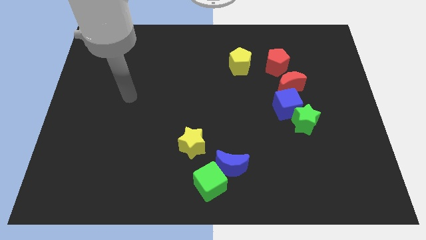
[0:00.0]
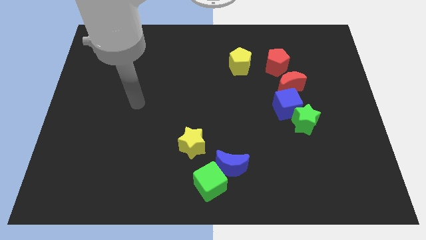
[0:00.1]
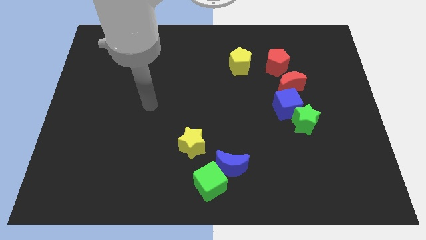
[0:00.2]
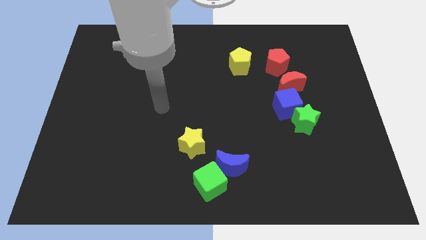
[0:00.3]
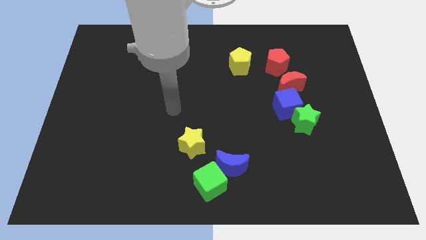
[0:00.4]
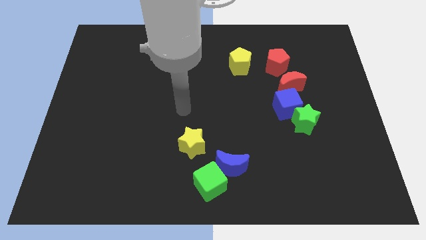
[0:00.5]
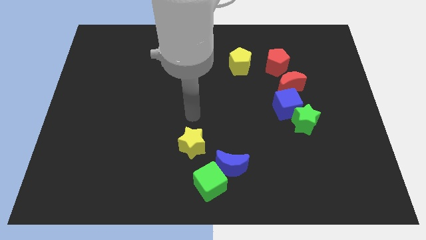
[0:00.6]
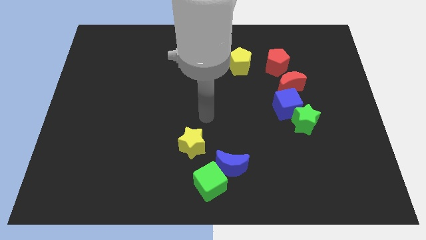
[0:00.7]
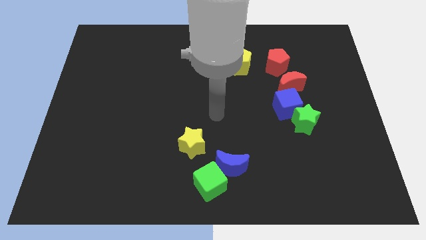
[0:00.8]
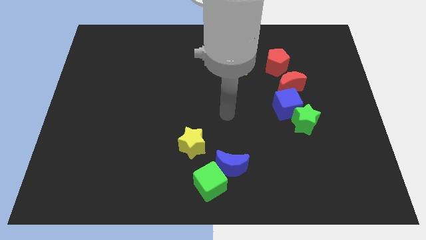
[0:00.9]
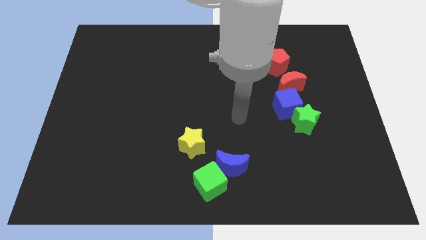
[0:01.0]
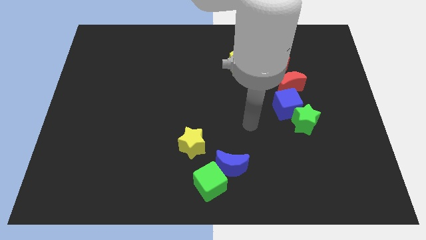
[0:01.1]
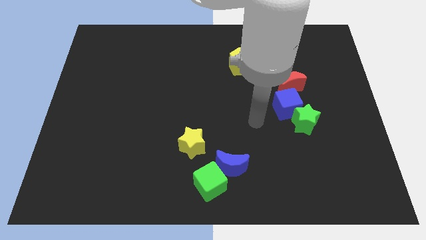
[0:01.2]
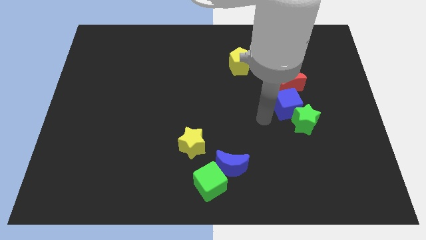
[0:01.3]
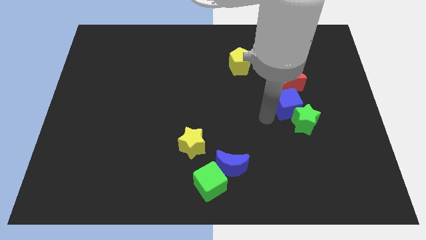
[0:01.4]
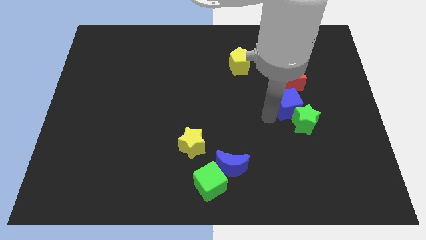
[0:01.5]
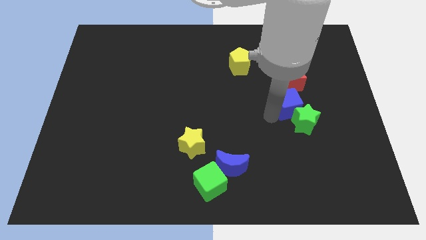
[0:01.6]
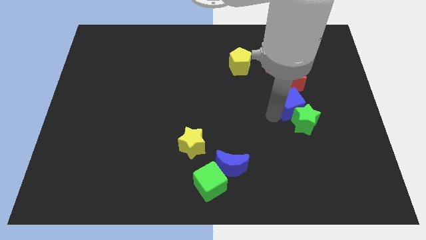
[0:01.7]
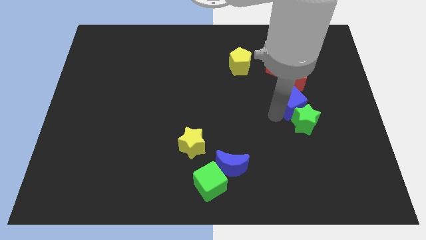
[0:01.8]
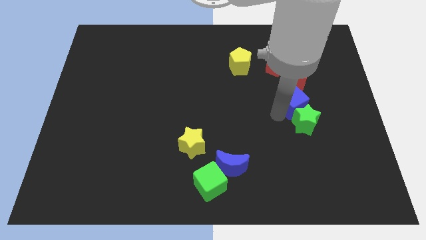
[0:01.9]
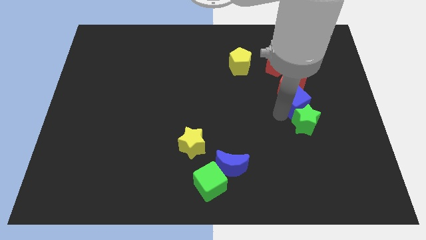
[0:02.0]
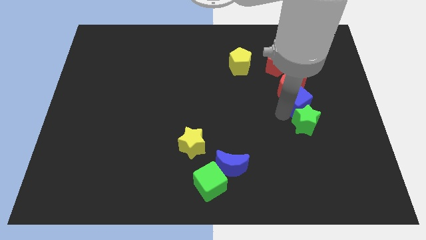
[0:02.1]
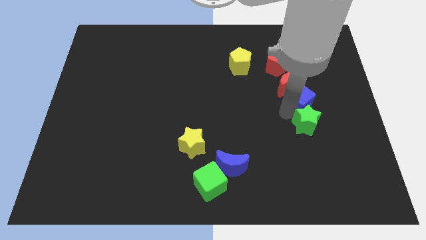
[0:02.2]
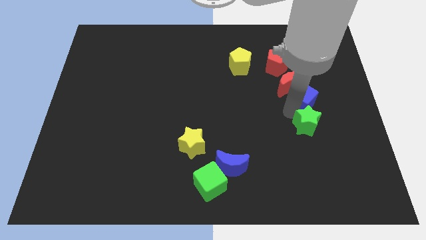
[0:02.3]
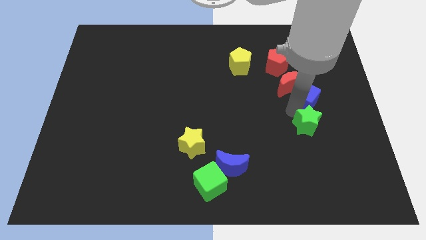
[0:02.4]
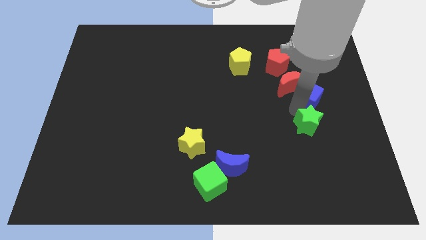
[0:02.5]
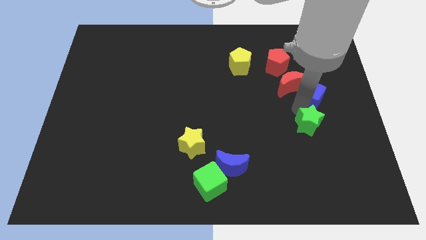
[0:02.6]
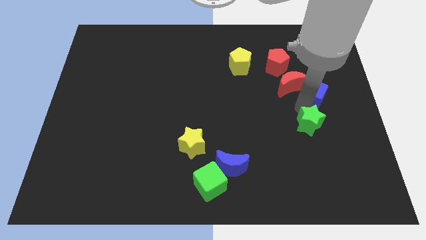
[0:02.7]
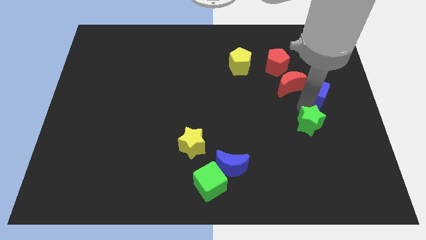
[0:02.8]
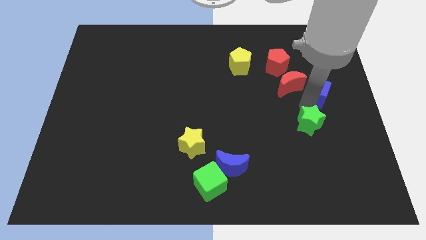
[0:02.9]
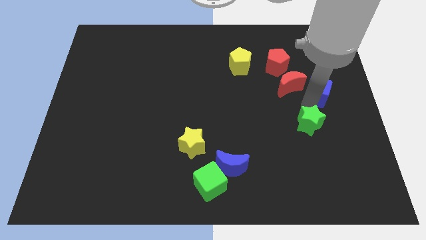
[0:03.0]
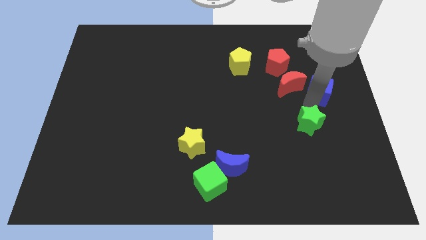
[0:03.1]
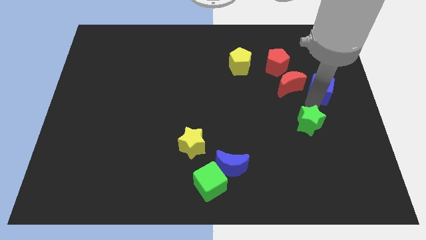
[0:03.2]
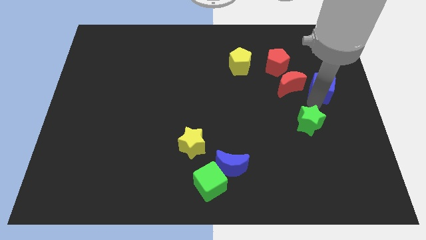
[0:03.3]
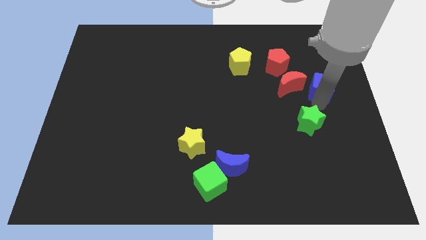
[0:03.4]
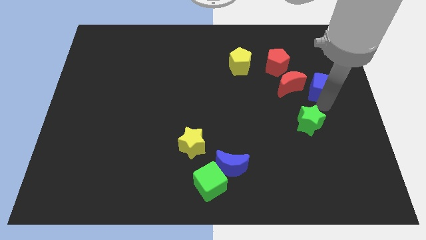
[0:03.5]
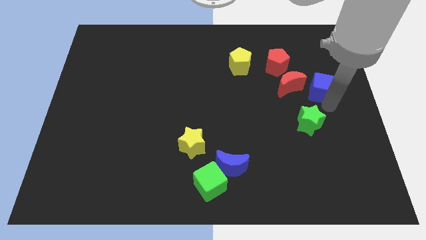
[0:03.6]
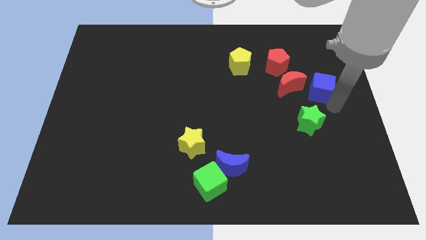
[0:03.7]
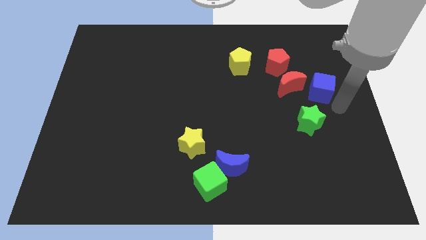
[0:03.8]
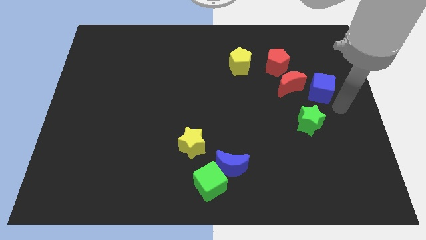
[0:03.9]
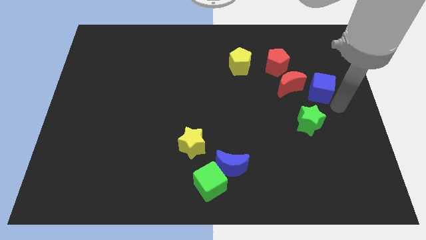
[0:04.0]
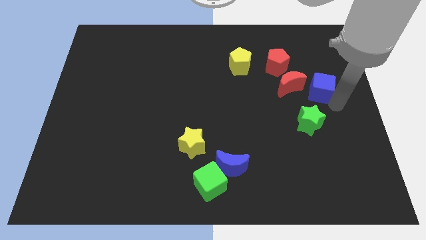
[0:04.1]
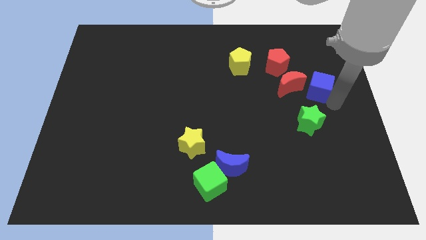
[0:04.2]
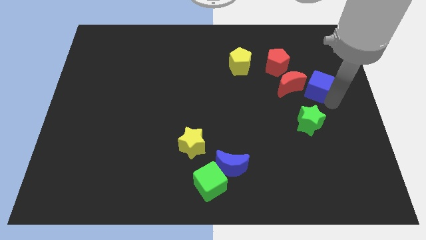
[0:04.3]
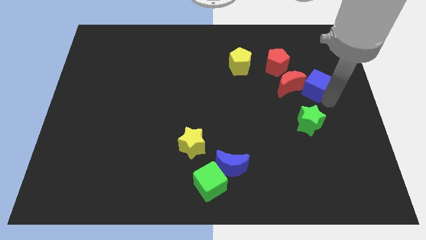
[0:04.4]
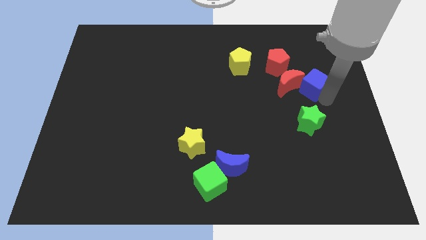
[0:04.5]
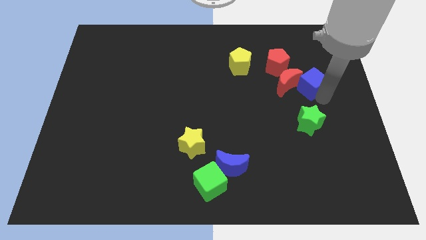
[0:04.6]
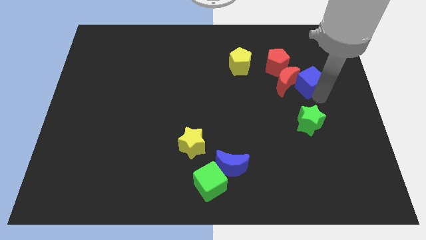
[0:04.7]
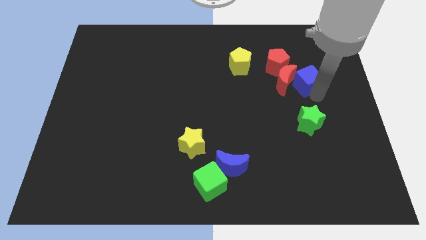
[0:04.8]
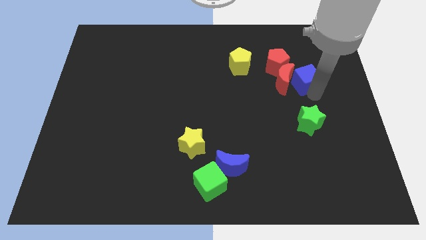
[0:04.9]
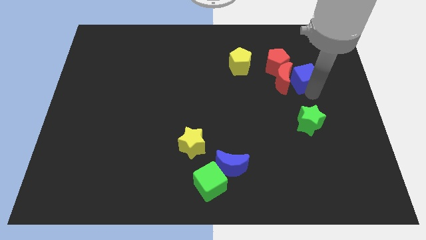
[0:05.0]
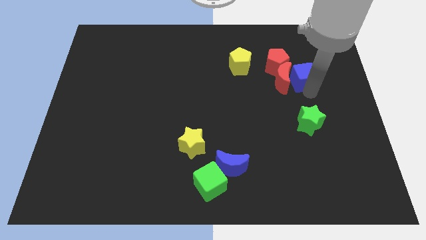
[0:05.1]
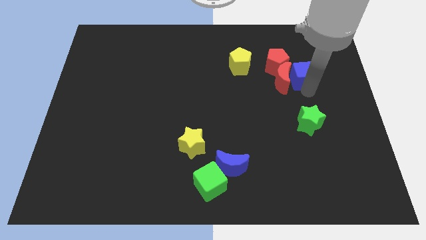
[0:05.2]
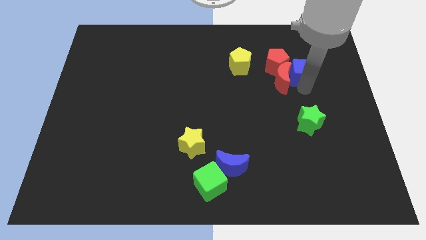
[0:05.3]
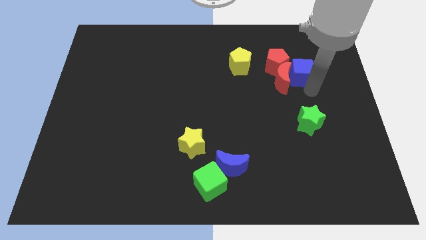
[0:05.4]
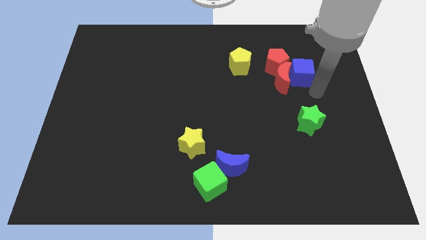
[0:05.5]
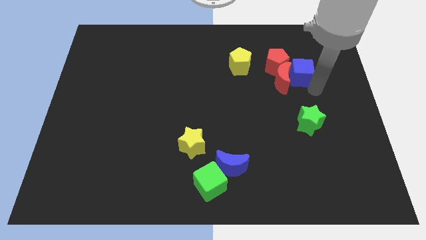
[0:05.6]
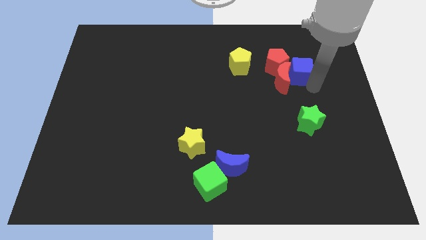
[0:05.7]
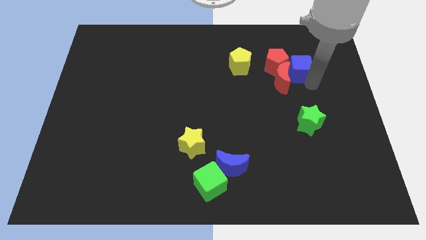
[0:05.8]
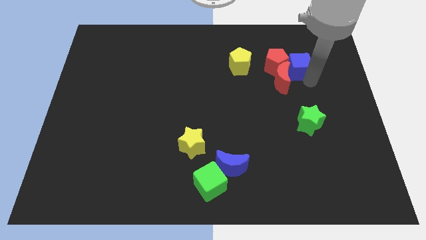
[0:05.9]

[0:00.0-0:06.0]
put the blue cube to the top of the red moon

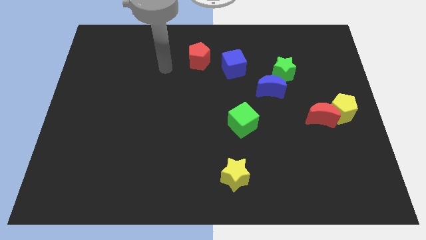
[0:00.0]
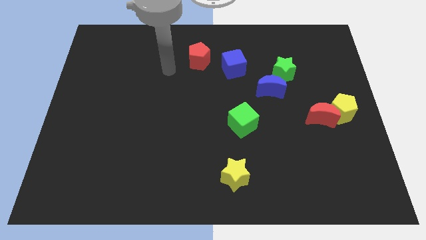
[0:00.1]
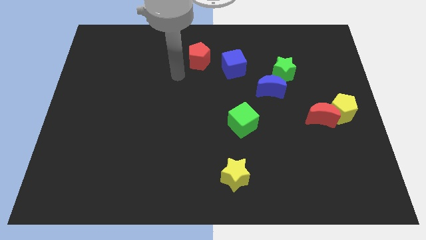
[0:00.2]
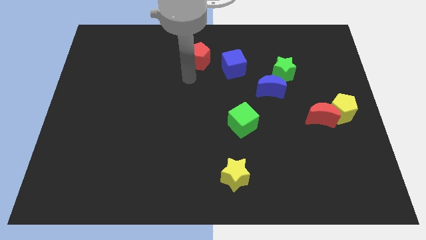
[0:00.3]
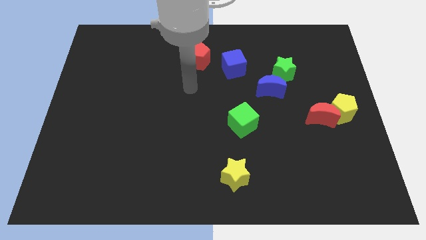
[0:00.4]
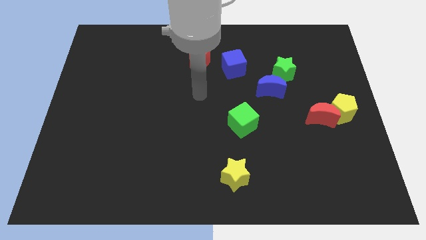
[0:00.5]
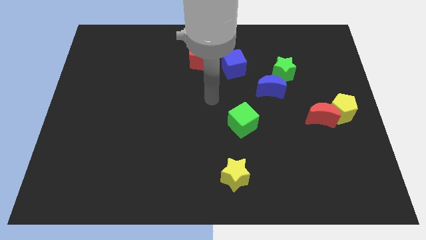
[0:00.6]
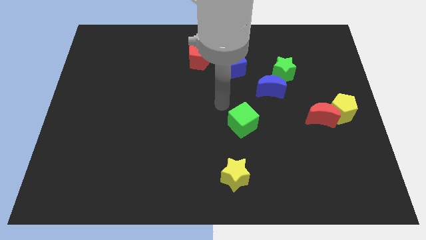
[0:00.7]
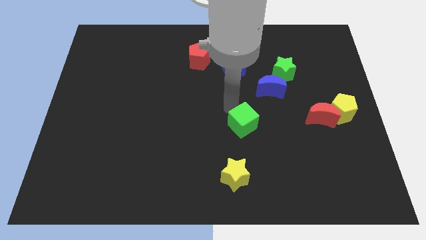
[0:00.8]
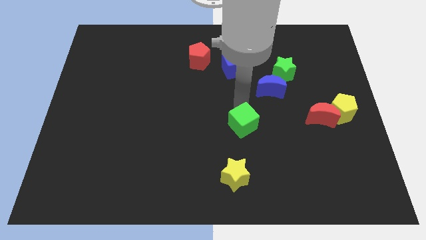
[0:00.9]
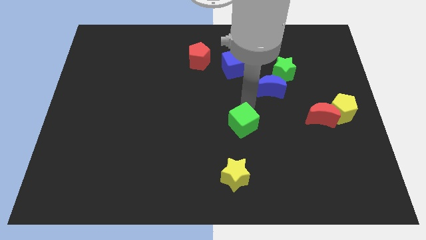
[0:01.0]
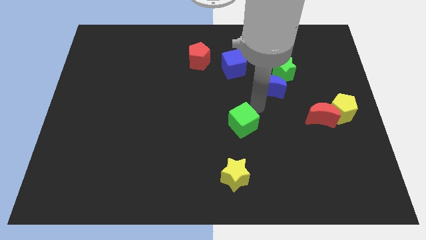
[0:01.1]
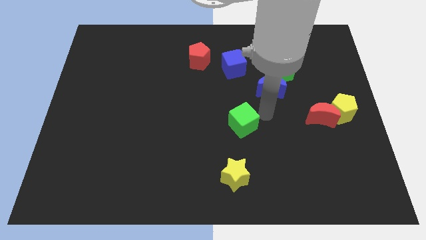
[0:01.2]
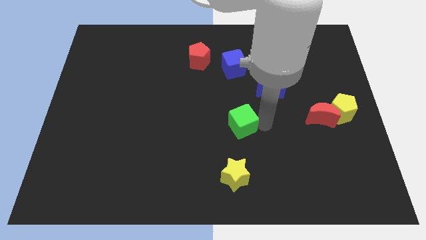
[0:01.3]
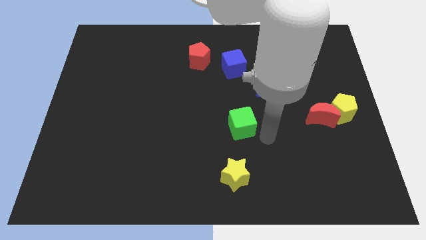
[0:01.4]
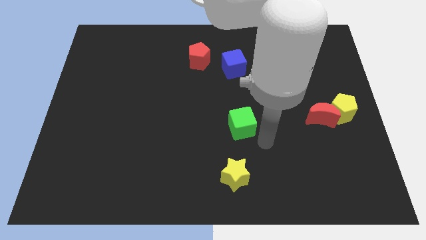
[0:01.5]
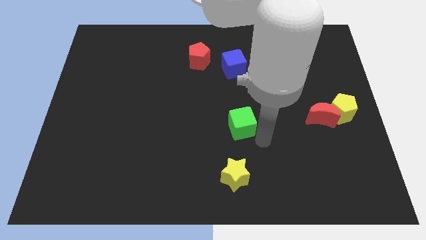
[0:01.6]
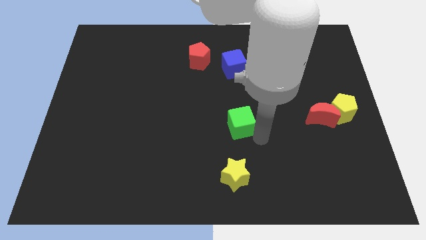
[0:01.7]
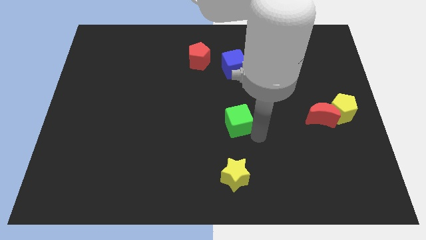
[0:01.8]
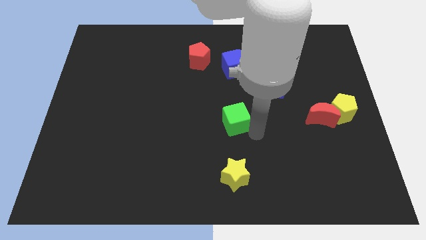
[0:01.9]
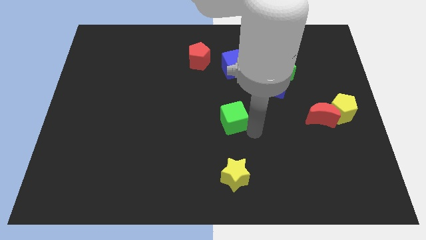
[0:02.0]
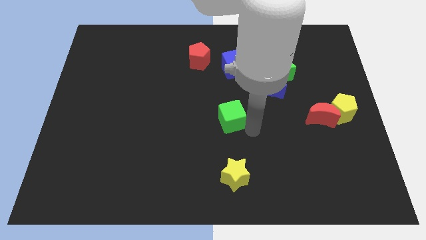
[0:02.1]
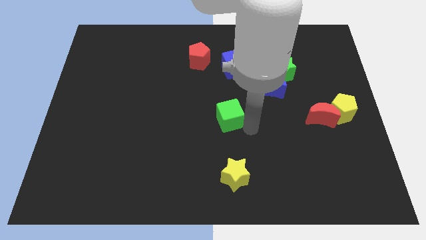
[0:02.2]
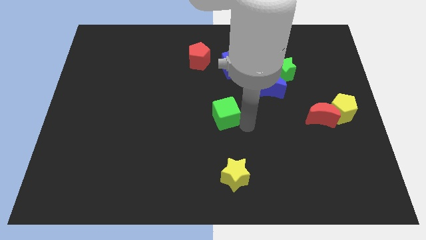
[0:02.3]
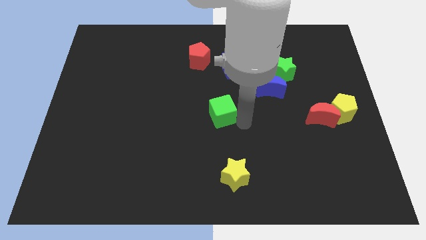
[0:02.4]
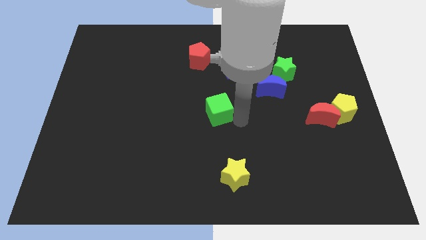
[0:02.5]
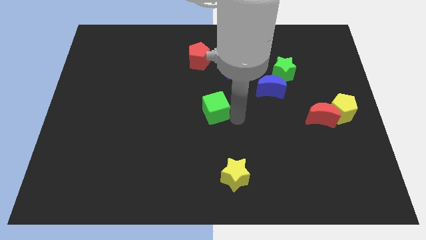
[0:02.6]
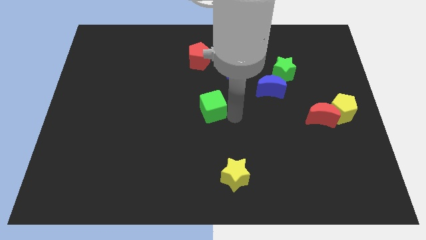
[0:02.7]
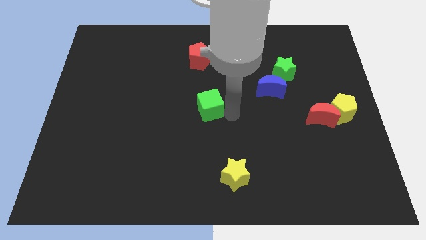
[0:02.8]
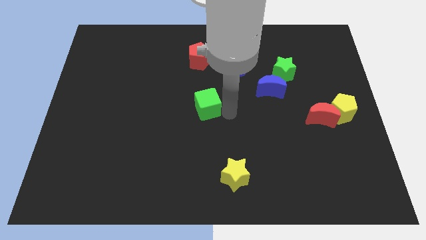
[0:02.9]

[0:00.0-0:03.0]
slide the green cube to the bottom of the red pentagon
